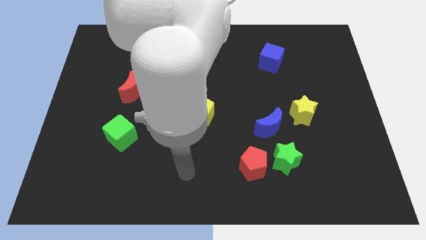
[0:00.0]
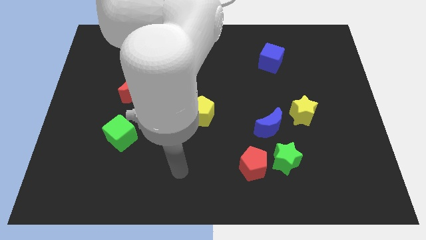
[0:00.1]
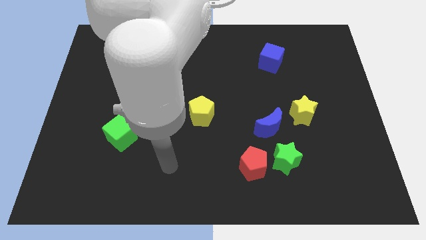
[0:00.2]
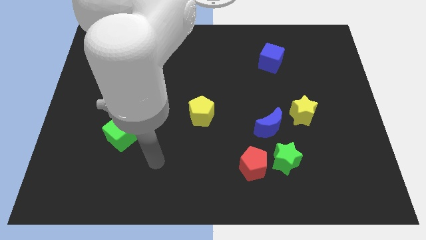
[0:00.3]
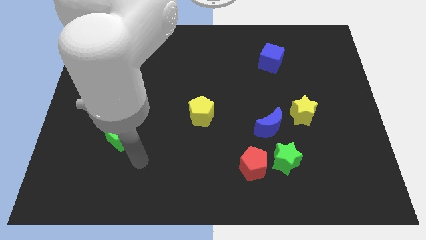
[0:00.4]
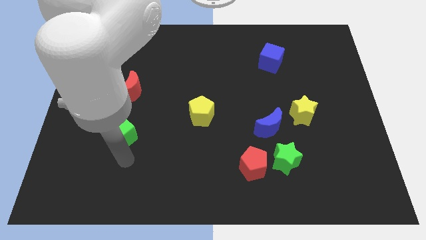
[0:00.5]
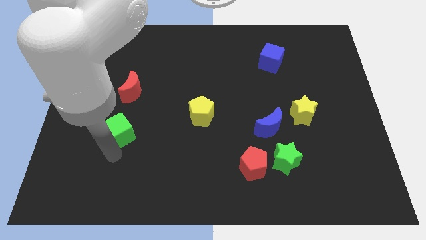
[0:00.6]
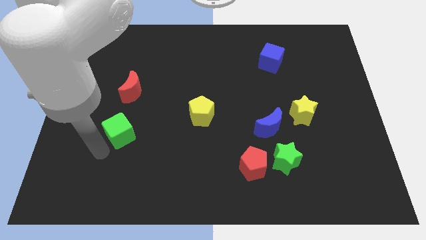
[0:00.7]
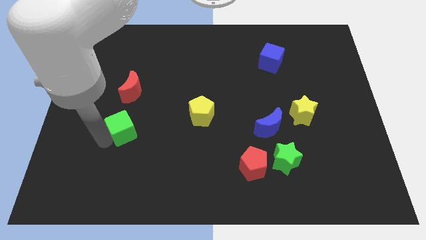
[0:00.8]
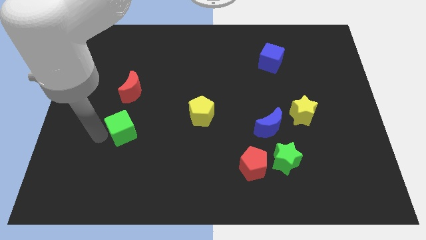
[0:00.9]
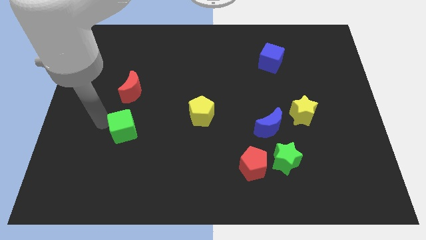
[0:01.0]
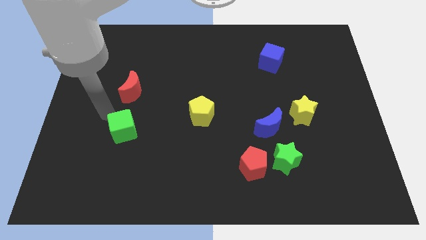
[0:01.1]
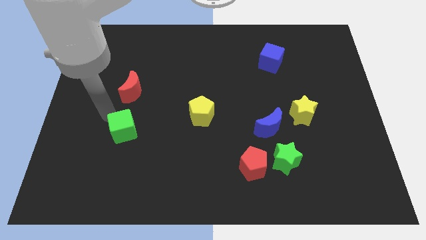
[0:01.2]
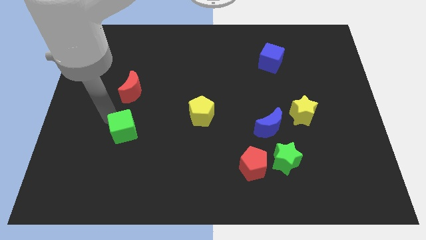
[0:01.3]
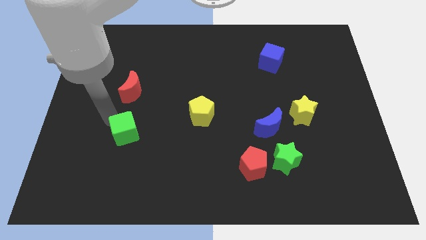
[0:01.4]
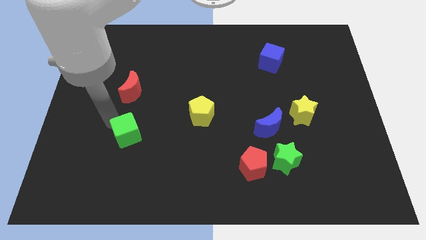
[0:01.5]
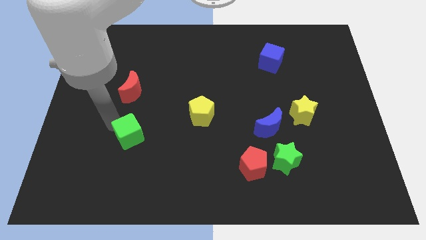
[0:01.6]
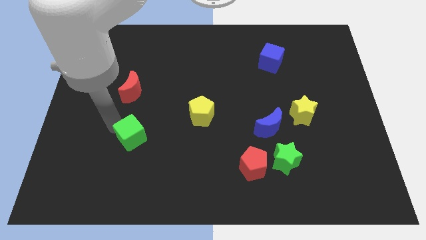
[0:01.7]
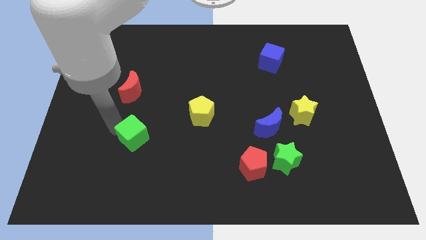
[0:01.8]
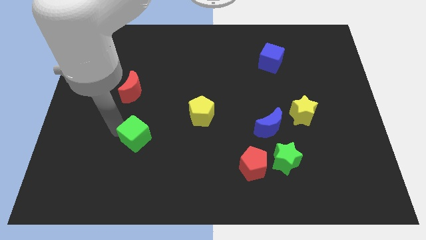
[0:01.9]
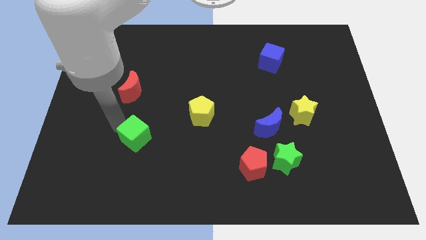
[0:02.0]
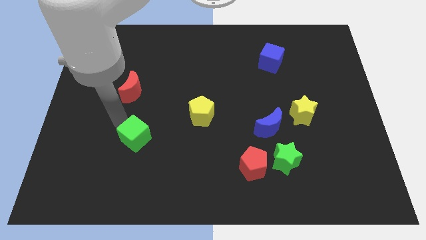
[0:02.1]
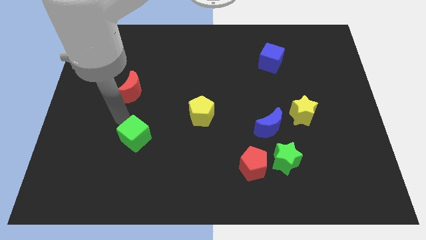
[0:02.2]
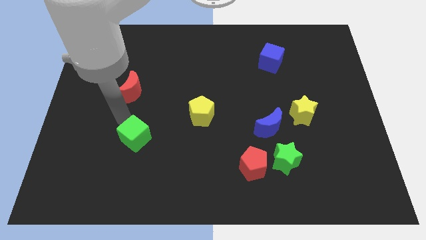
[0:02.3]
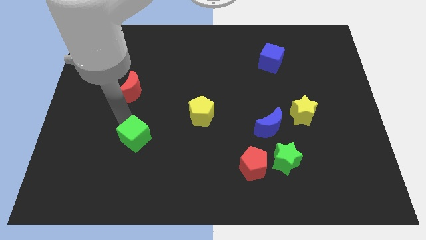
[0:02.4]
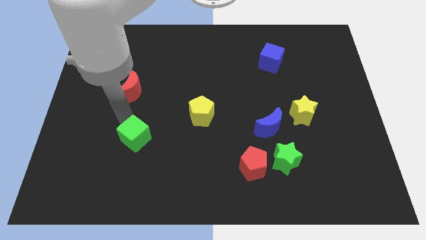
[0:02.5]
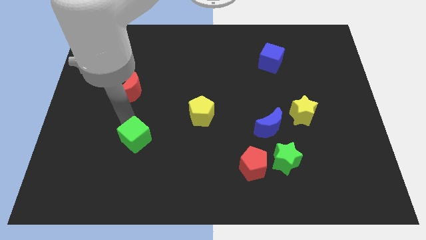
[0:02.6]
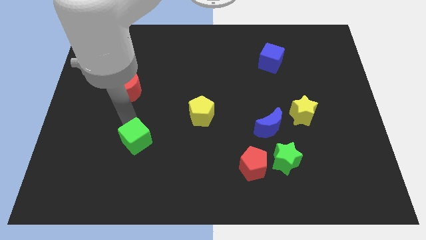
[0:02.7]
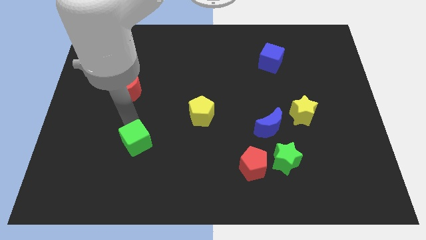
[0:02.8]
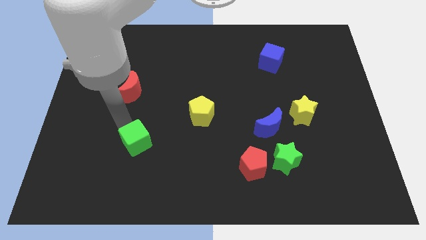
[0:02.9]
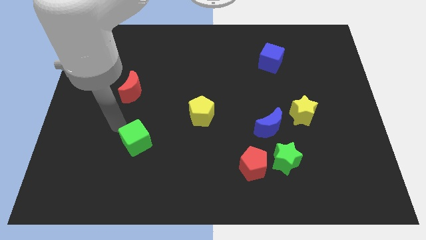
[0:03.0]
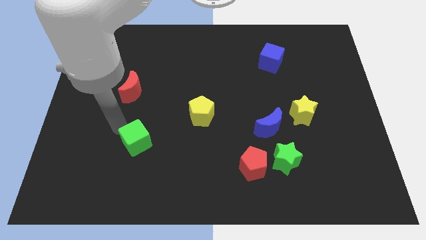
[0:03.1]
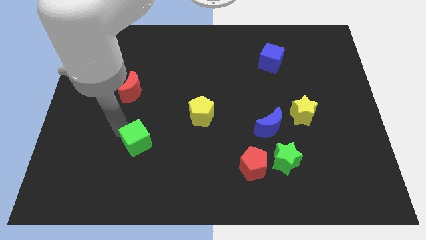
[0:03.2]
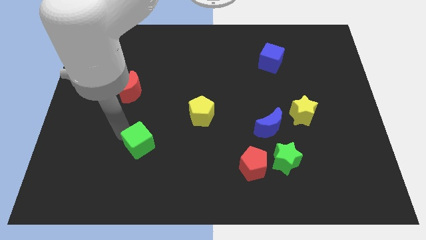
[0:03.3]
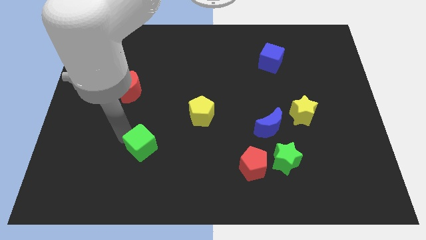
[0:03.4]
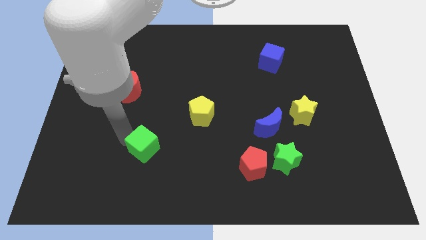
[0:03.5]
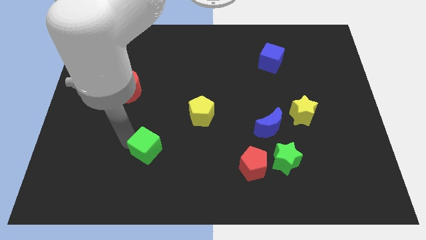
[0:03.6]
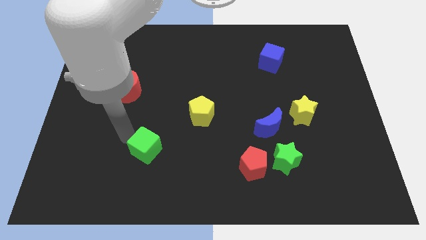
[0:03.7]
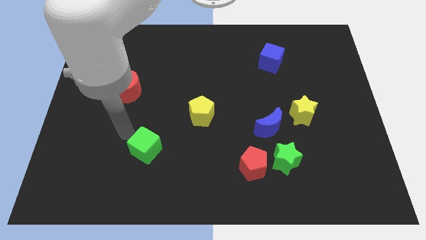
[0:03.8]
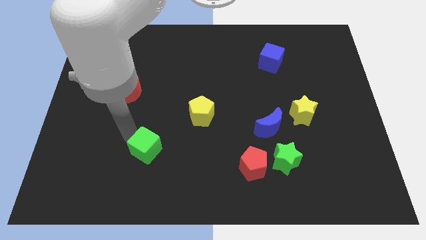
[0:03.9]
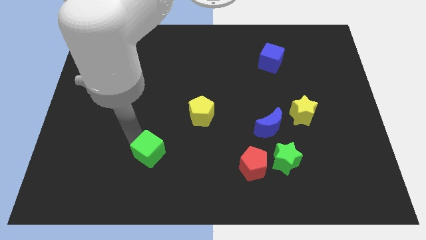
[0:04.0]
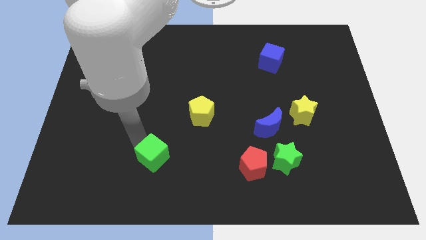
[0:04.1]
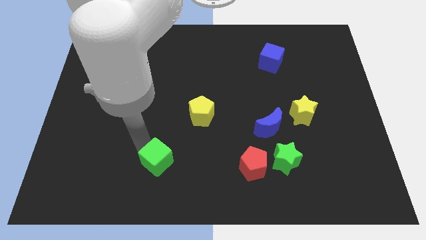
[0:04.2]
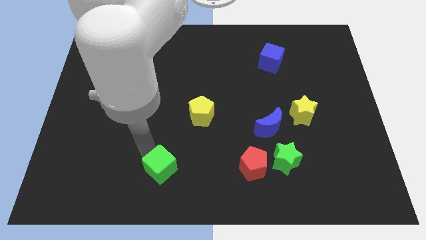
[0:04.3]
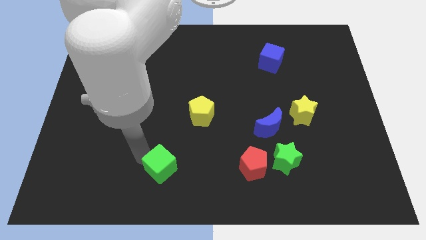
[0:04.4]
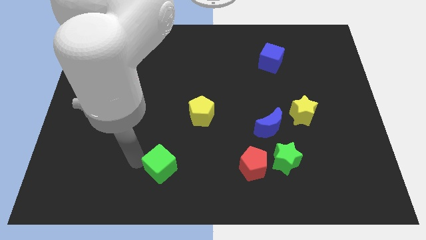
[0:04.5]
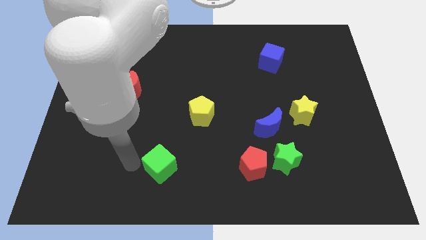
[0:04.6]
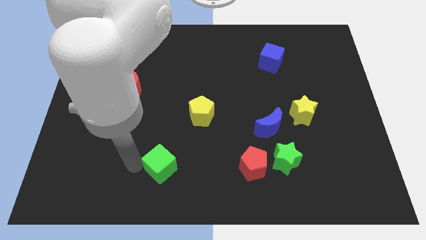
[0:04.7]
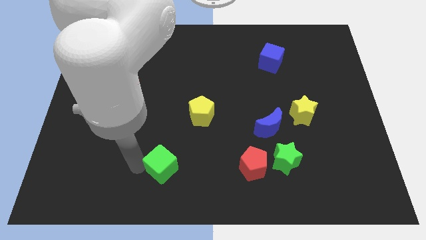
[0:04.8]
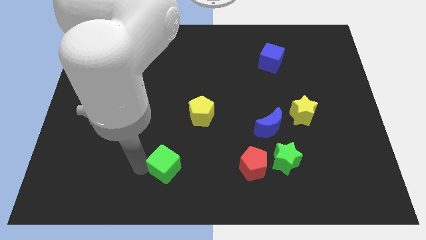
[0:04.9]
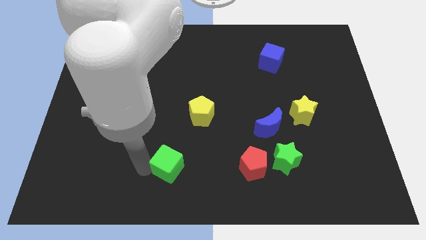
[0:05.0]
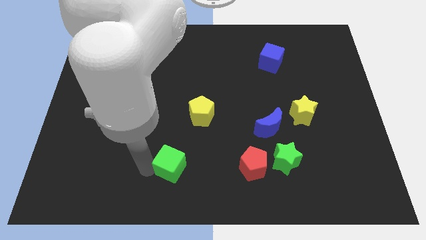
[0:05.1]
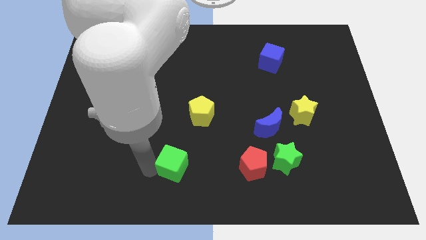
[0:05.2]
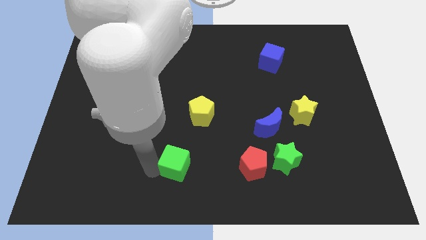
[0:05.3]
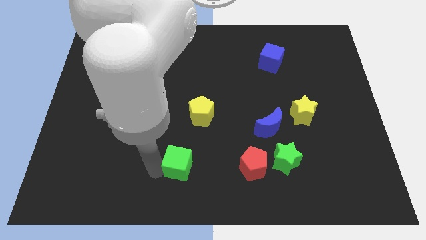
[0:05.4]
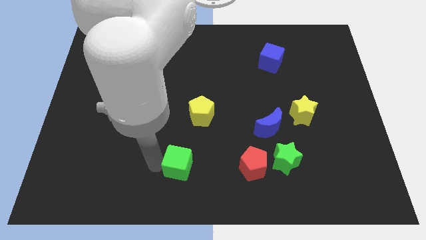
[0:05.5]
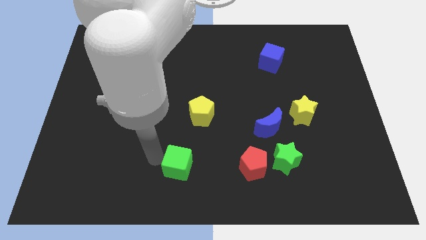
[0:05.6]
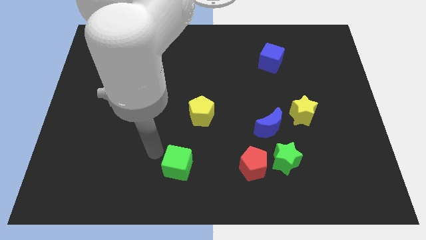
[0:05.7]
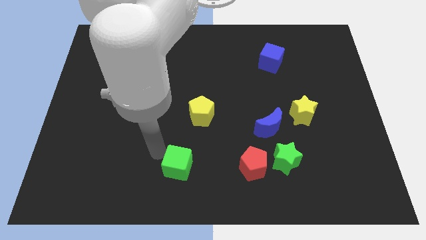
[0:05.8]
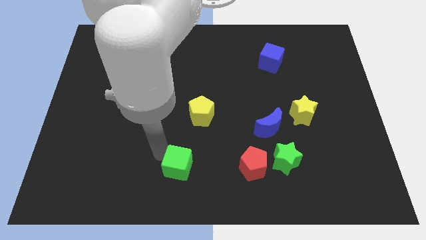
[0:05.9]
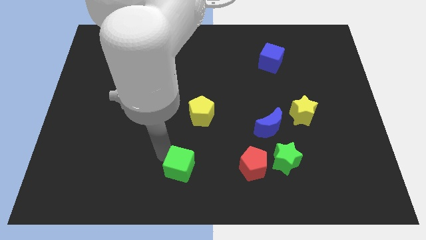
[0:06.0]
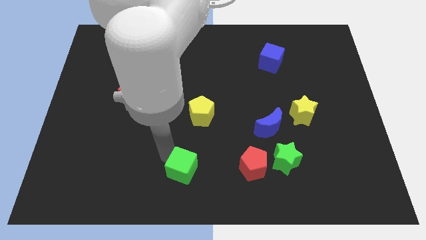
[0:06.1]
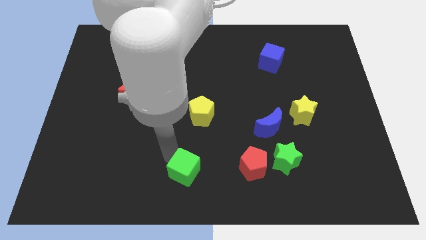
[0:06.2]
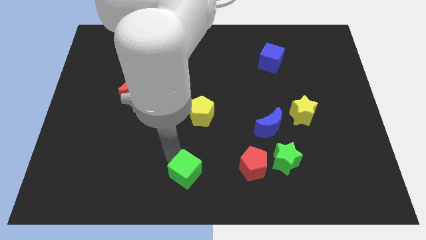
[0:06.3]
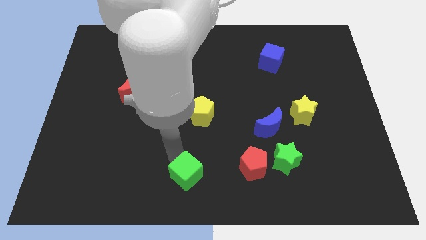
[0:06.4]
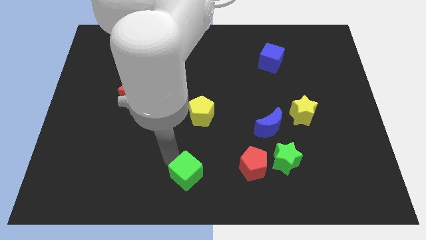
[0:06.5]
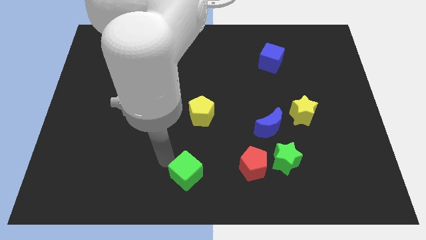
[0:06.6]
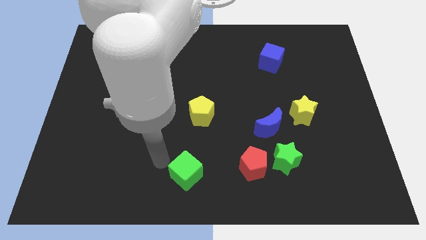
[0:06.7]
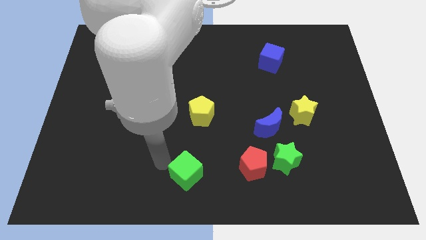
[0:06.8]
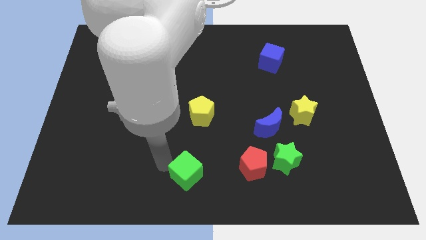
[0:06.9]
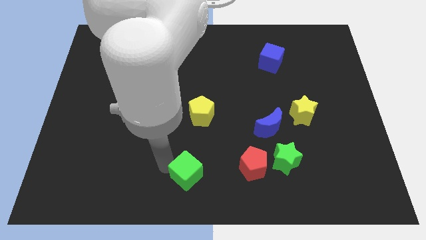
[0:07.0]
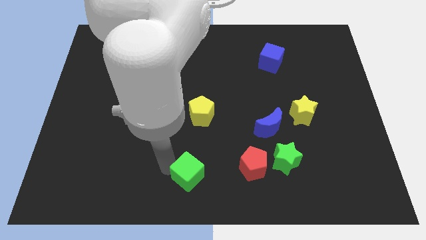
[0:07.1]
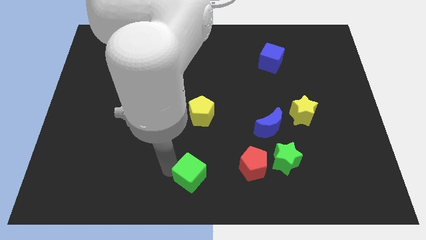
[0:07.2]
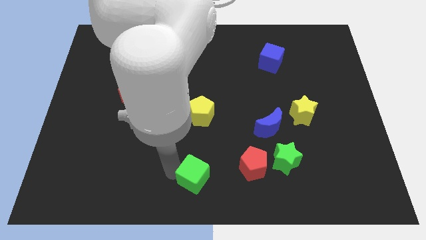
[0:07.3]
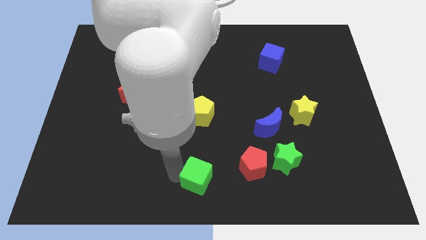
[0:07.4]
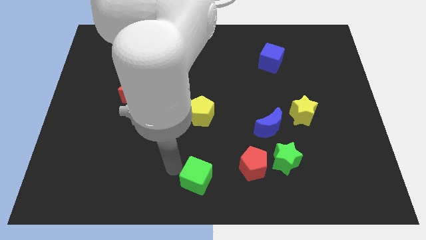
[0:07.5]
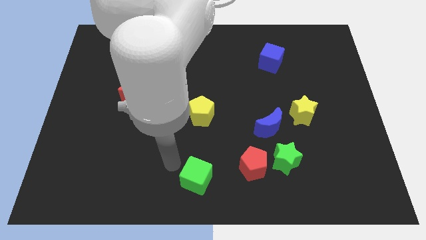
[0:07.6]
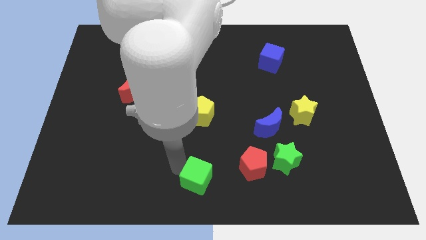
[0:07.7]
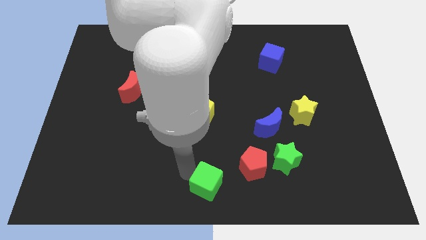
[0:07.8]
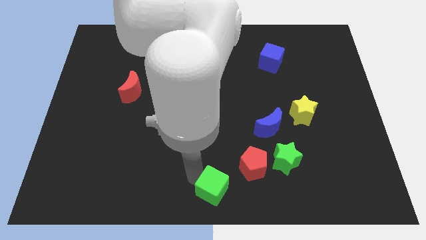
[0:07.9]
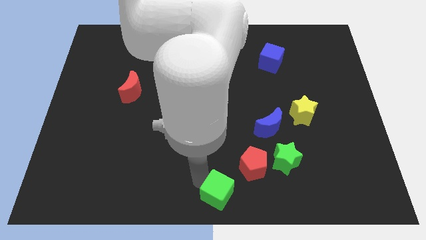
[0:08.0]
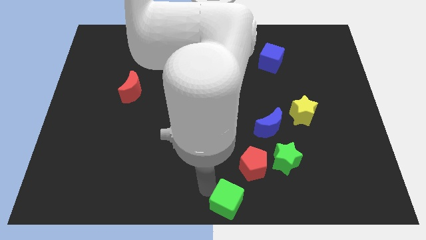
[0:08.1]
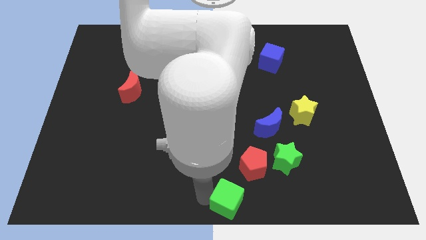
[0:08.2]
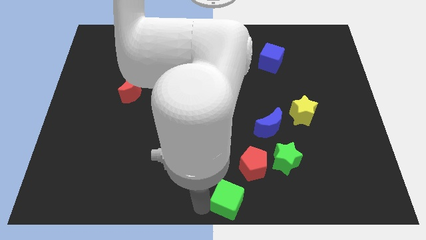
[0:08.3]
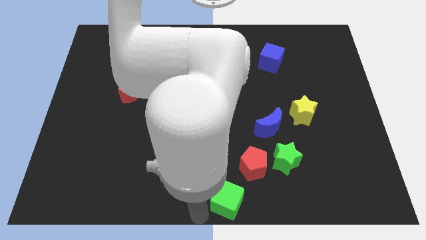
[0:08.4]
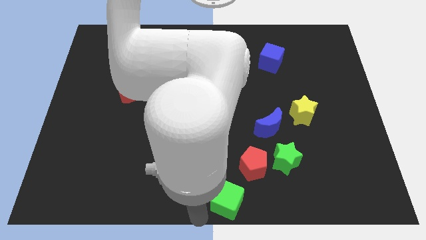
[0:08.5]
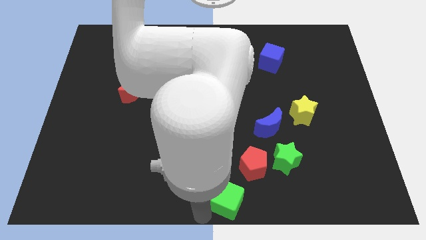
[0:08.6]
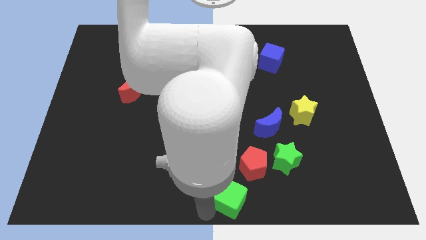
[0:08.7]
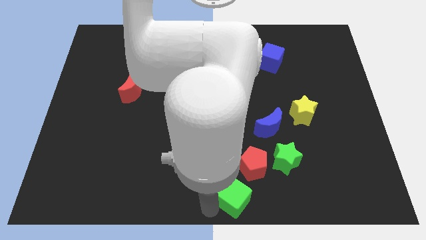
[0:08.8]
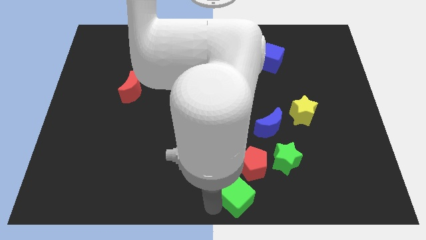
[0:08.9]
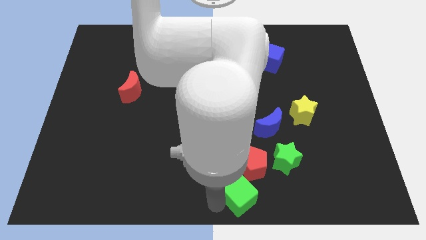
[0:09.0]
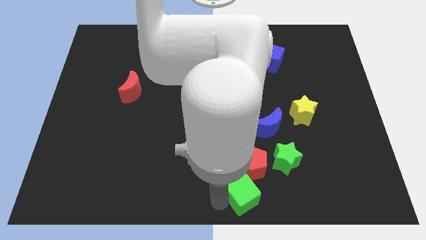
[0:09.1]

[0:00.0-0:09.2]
put the green cube to the bottom left of the green star
